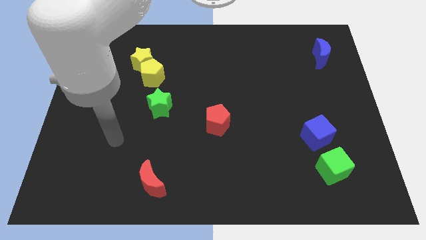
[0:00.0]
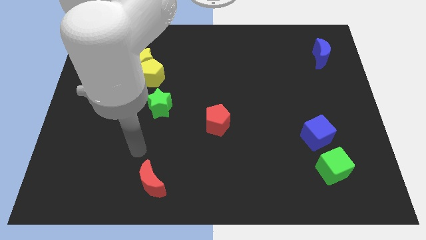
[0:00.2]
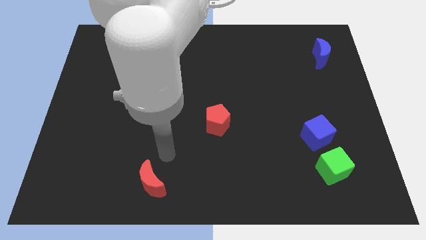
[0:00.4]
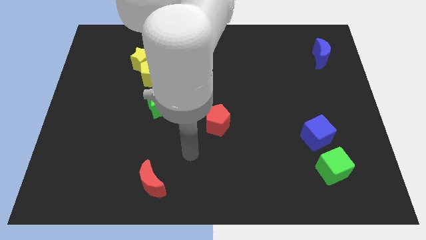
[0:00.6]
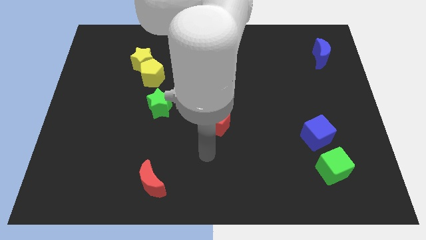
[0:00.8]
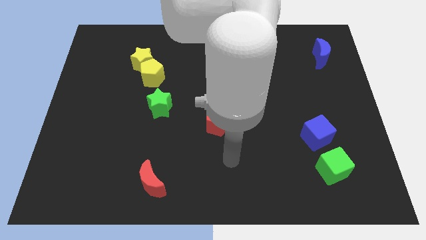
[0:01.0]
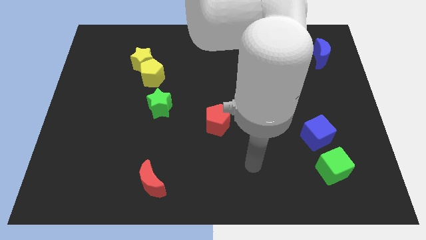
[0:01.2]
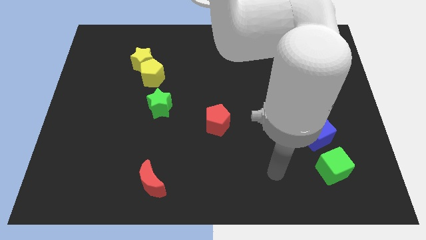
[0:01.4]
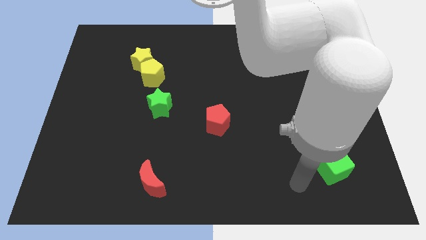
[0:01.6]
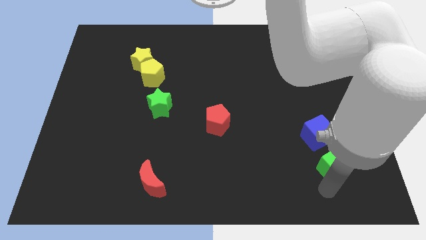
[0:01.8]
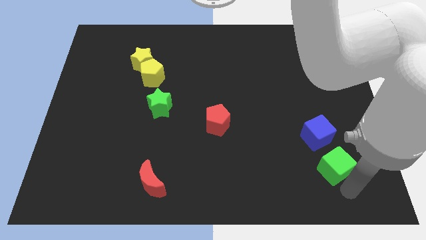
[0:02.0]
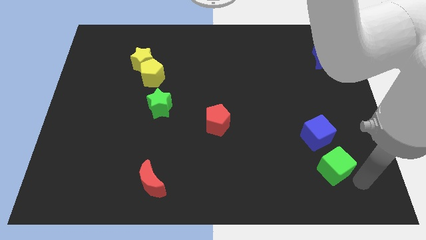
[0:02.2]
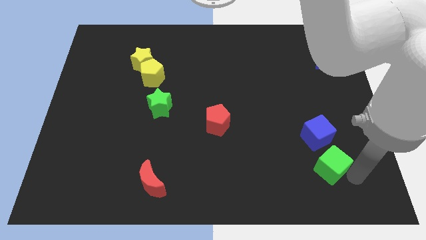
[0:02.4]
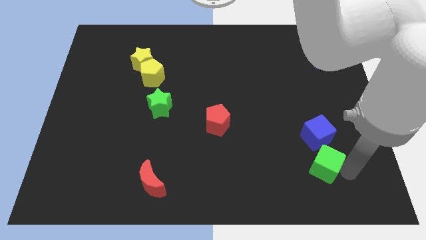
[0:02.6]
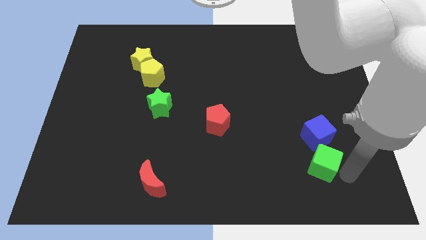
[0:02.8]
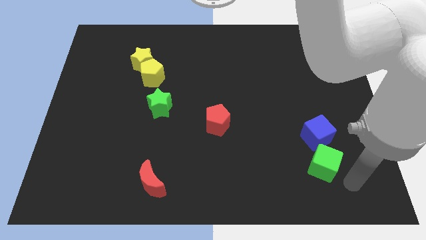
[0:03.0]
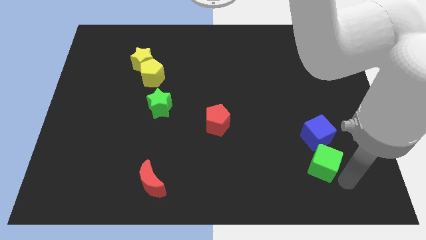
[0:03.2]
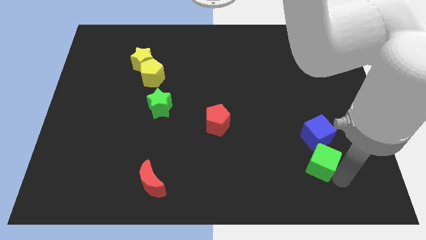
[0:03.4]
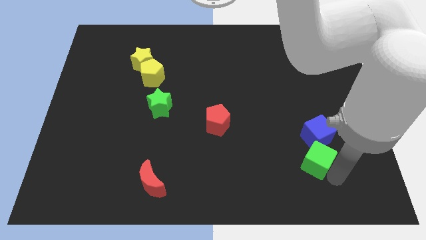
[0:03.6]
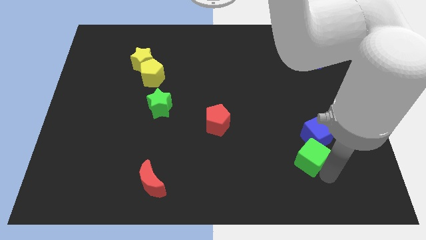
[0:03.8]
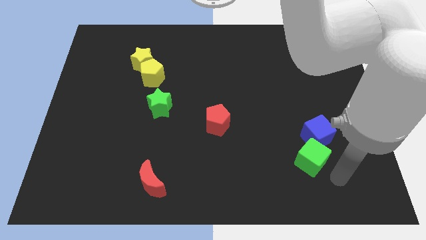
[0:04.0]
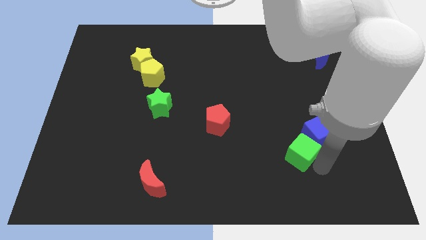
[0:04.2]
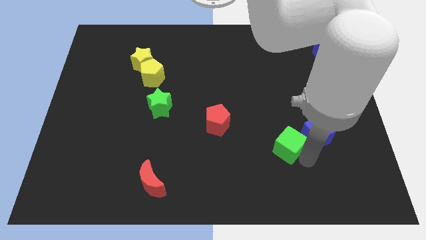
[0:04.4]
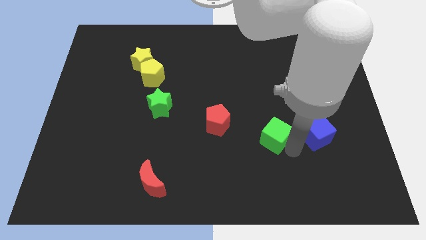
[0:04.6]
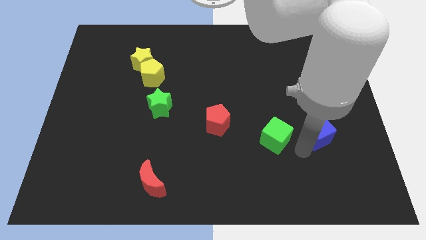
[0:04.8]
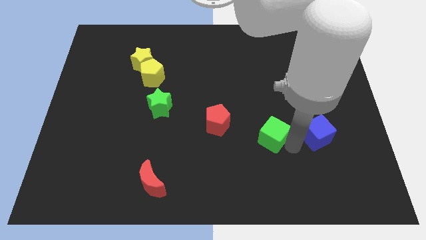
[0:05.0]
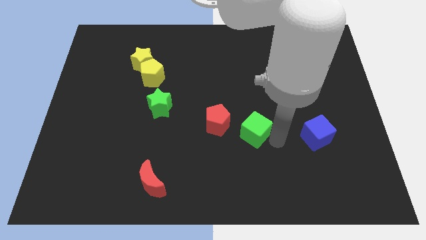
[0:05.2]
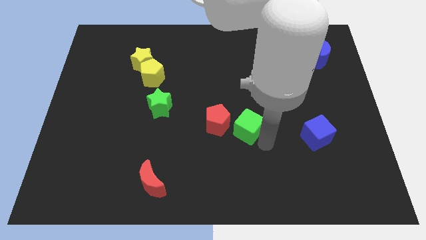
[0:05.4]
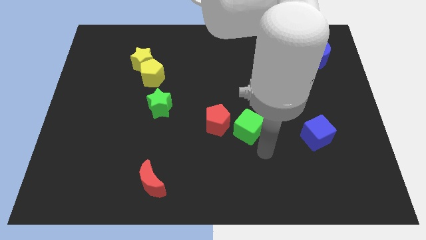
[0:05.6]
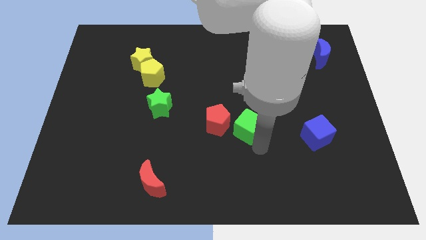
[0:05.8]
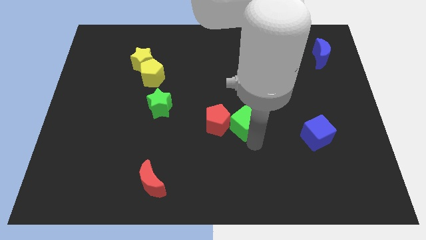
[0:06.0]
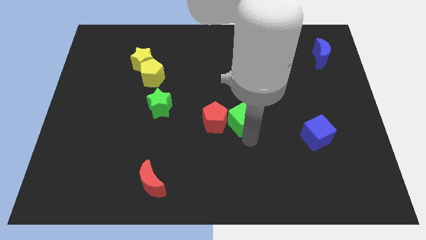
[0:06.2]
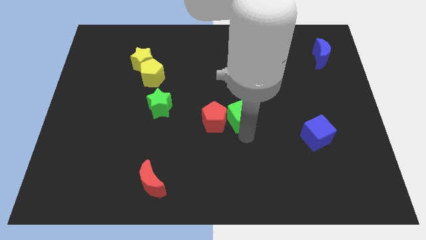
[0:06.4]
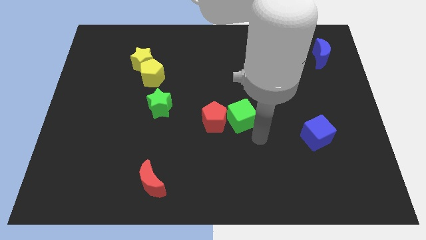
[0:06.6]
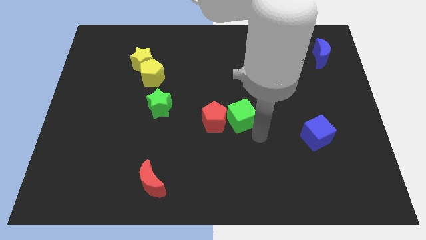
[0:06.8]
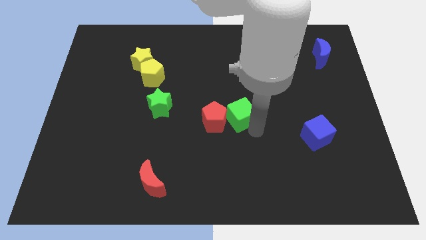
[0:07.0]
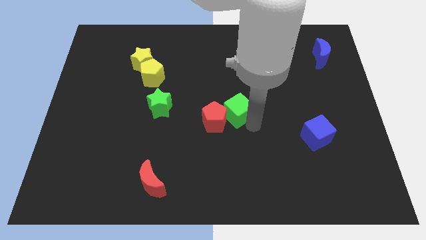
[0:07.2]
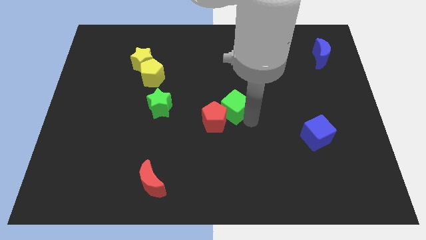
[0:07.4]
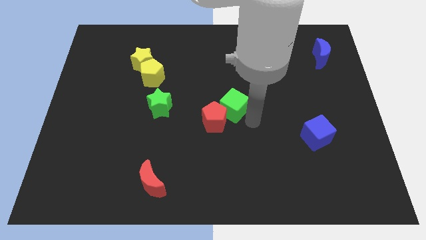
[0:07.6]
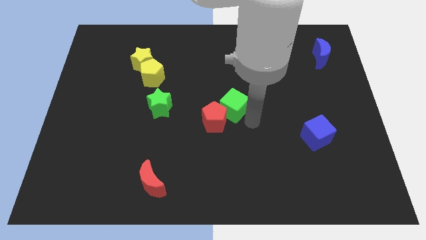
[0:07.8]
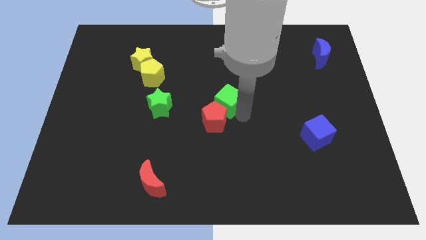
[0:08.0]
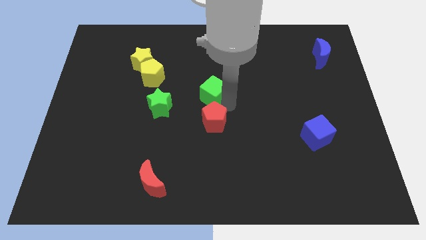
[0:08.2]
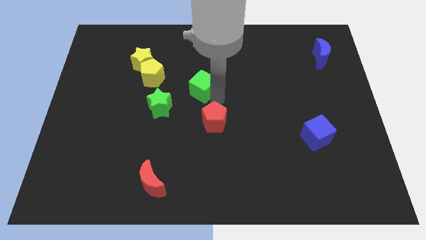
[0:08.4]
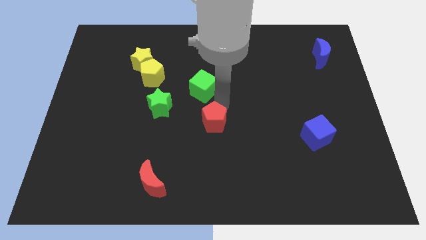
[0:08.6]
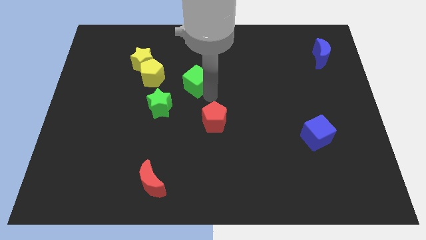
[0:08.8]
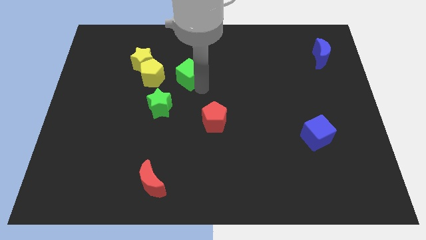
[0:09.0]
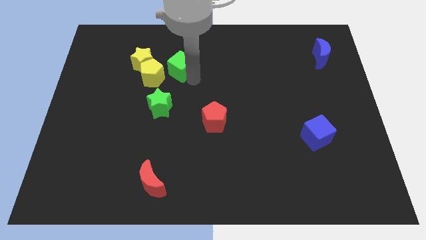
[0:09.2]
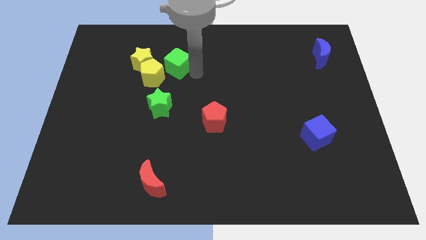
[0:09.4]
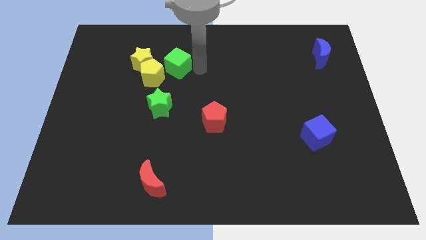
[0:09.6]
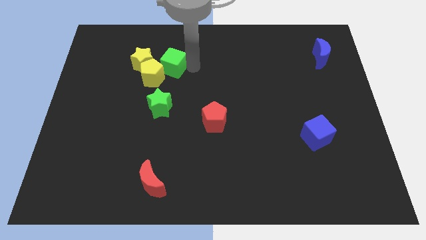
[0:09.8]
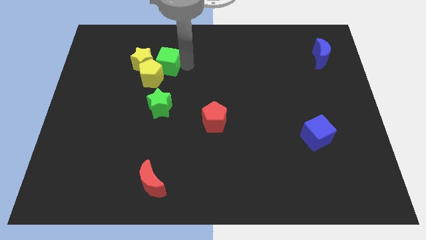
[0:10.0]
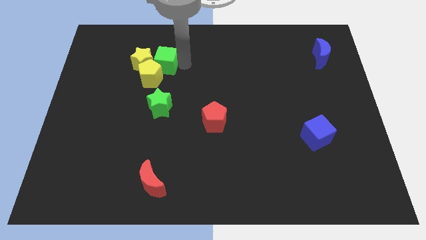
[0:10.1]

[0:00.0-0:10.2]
push the green cube next to the yellow star
